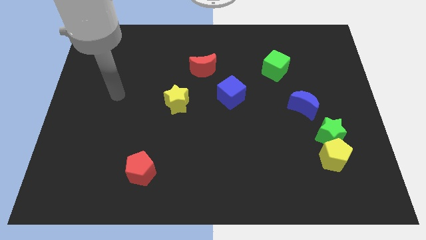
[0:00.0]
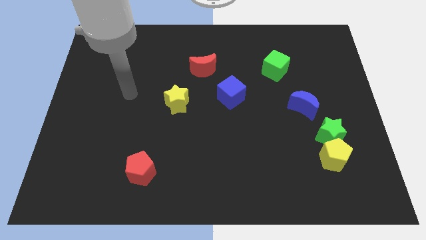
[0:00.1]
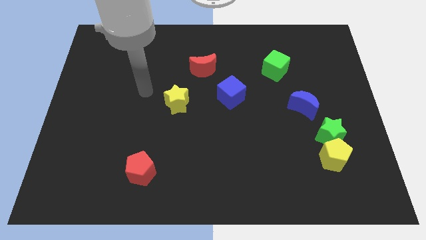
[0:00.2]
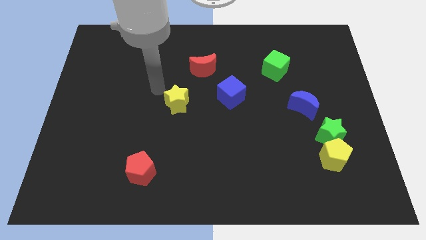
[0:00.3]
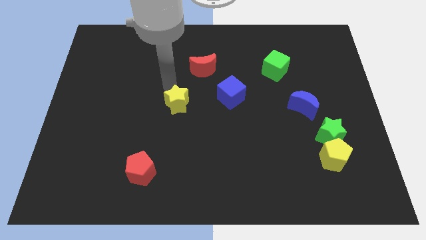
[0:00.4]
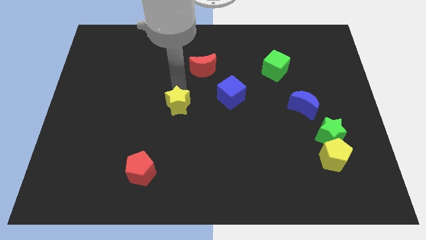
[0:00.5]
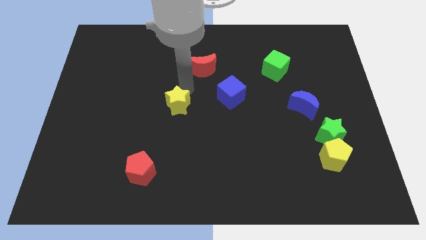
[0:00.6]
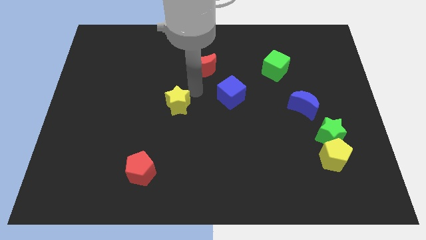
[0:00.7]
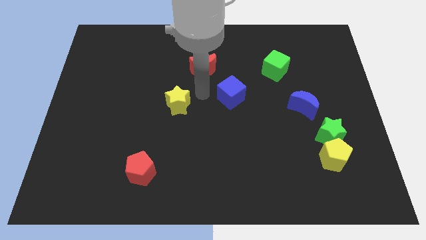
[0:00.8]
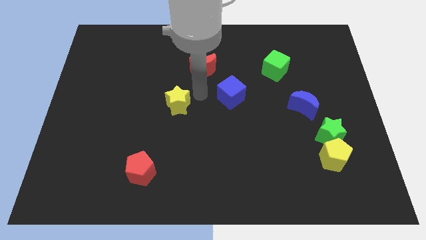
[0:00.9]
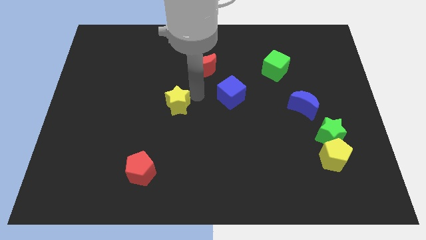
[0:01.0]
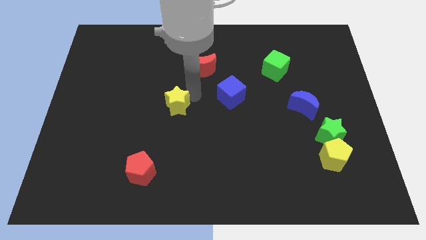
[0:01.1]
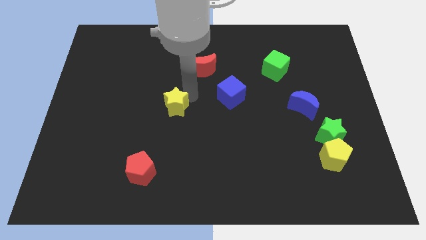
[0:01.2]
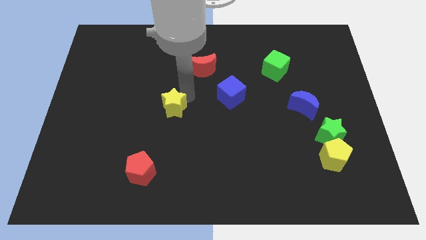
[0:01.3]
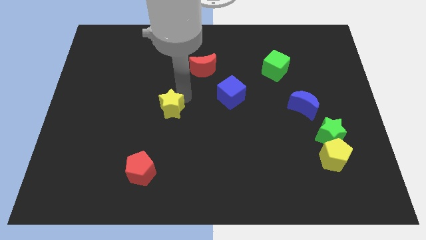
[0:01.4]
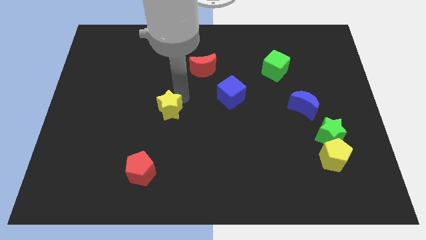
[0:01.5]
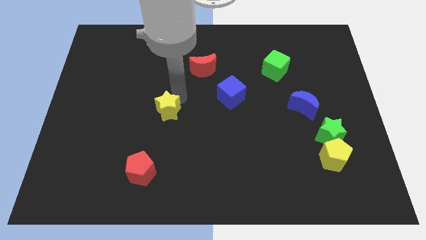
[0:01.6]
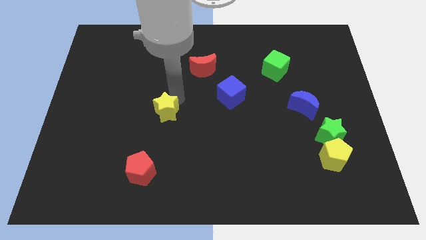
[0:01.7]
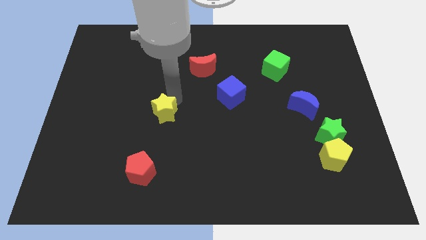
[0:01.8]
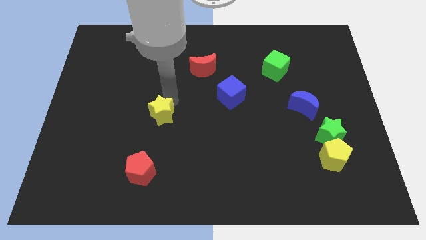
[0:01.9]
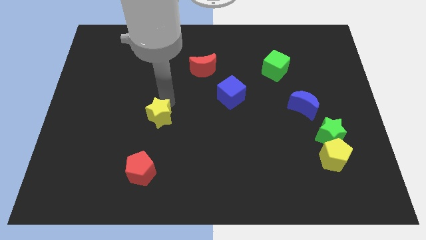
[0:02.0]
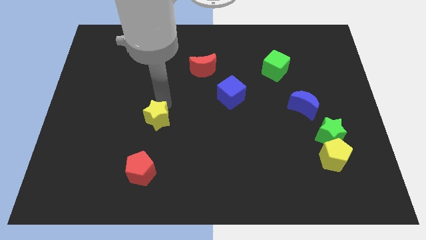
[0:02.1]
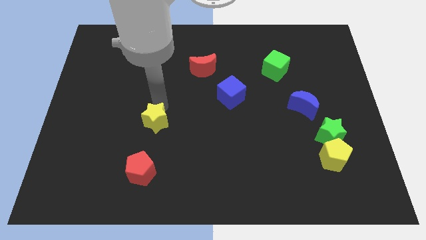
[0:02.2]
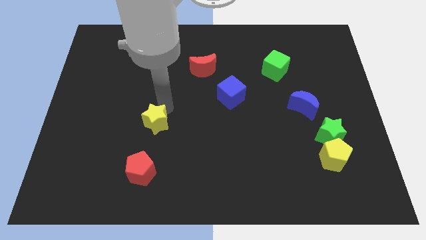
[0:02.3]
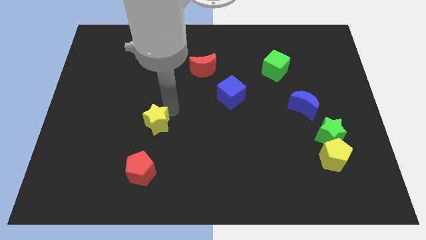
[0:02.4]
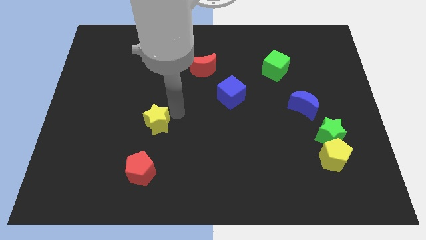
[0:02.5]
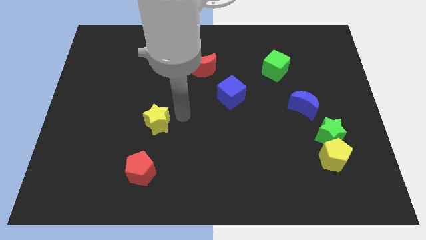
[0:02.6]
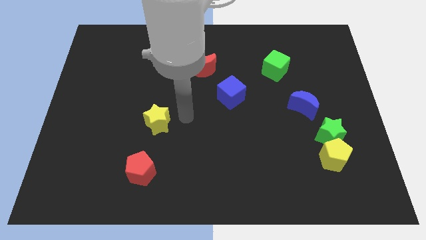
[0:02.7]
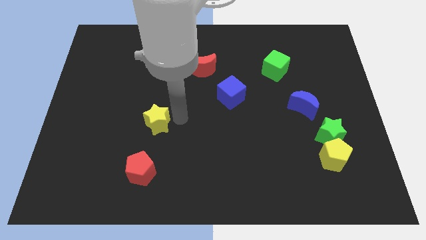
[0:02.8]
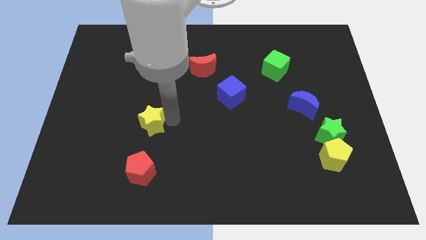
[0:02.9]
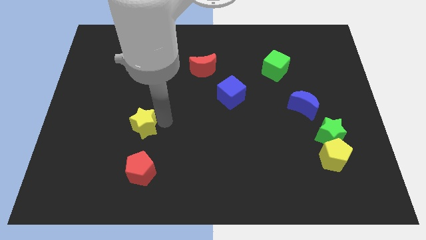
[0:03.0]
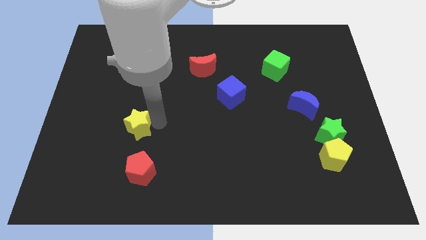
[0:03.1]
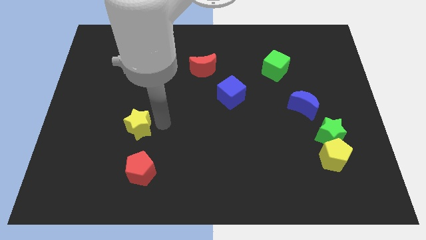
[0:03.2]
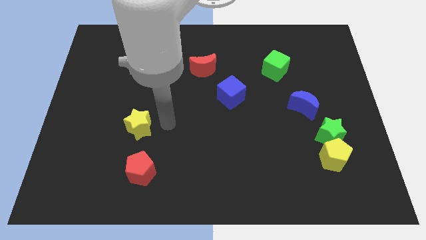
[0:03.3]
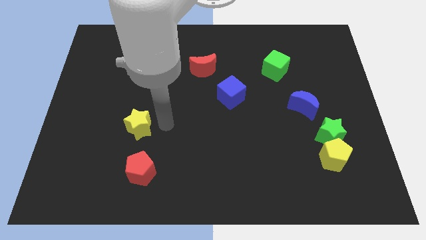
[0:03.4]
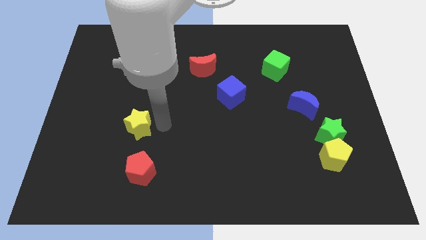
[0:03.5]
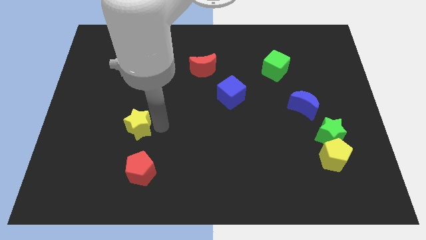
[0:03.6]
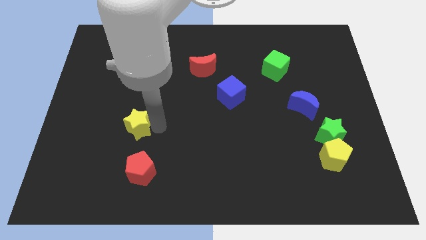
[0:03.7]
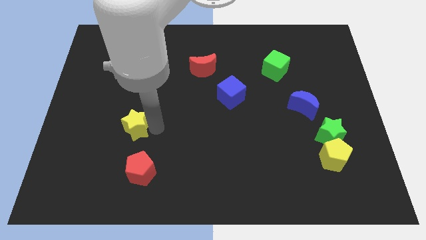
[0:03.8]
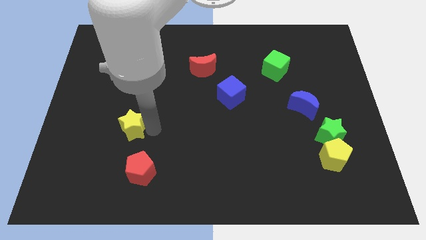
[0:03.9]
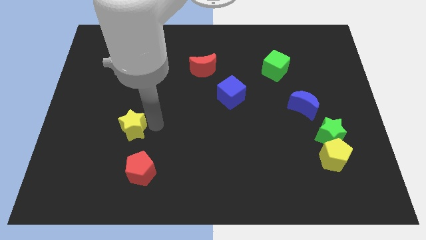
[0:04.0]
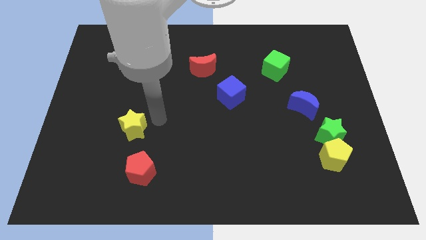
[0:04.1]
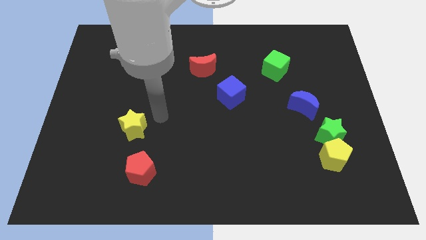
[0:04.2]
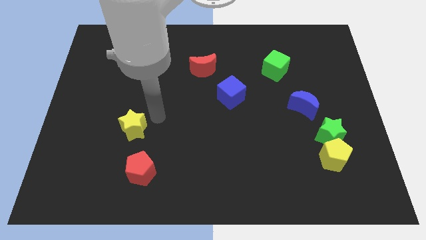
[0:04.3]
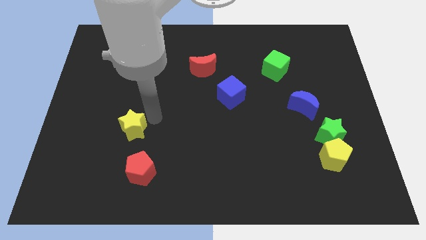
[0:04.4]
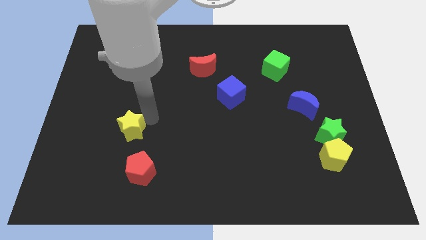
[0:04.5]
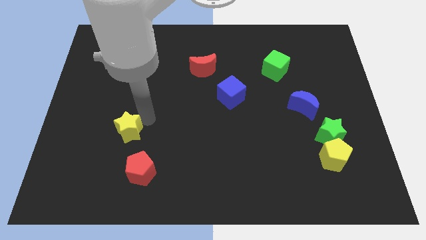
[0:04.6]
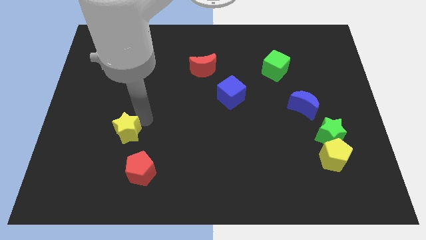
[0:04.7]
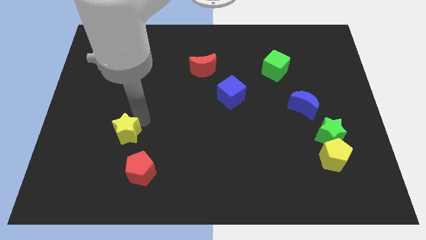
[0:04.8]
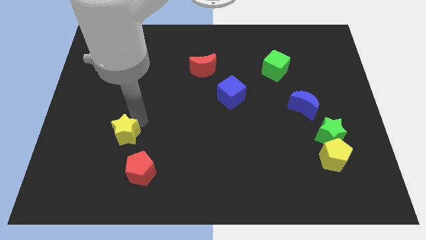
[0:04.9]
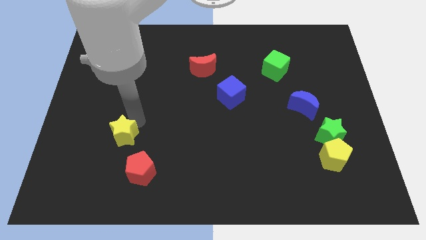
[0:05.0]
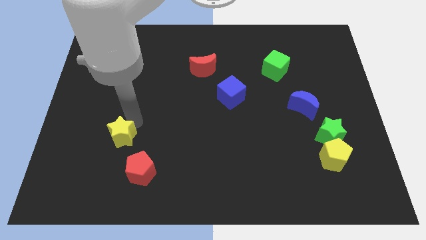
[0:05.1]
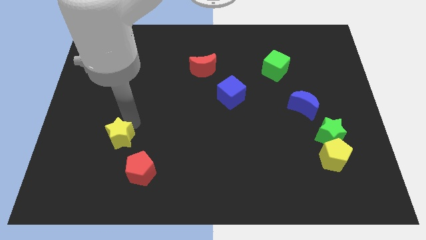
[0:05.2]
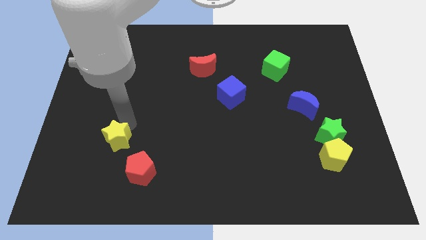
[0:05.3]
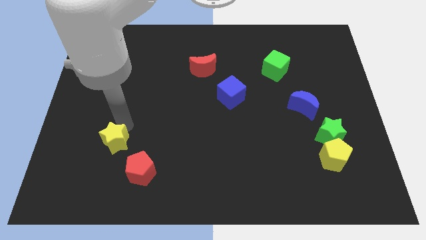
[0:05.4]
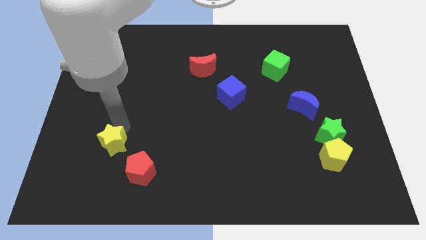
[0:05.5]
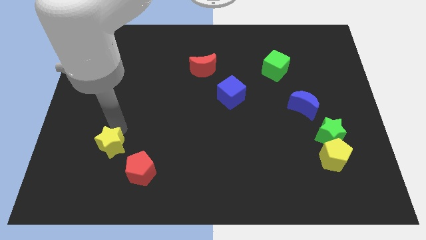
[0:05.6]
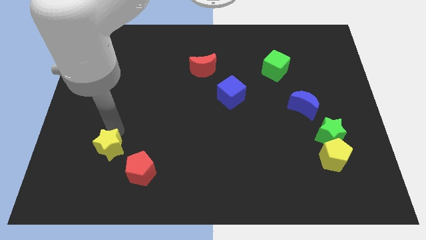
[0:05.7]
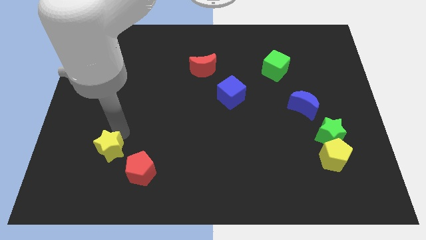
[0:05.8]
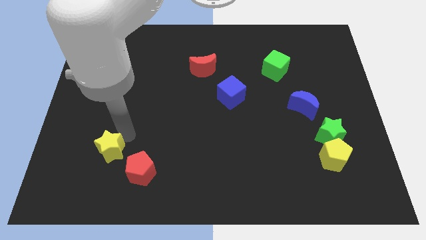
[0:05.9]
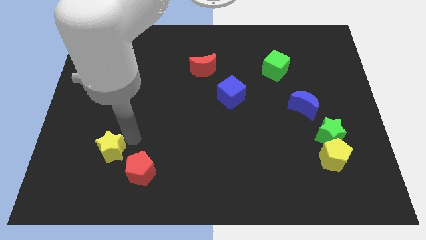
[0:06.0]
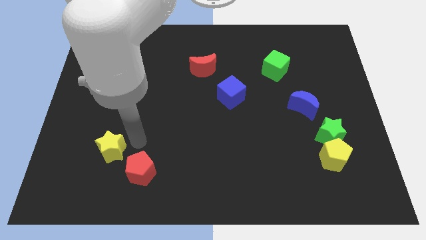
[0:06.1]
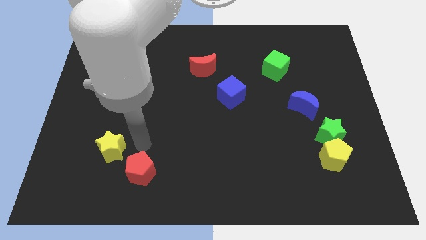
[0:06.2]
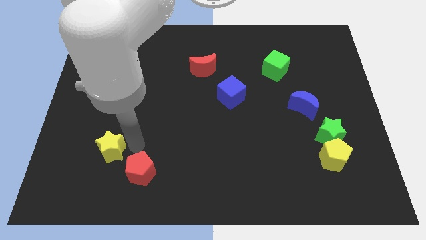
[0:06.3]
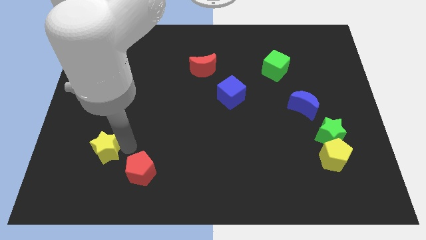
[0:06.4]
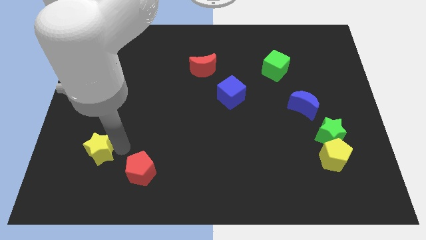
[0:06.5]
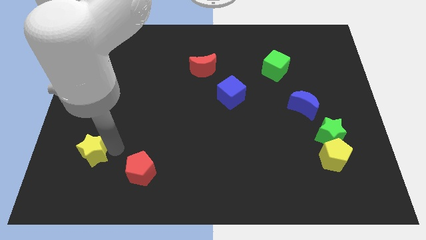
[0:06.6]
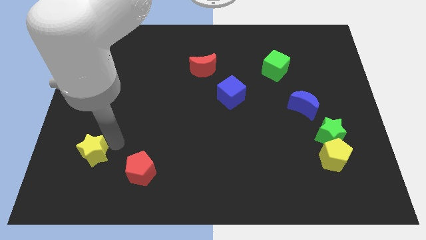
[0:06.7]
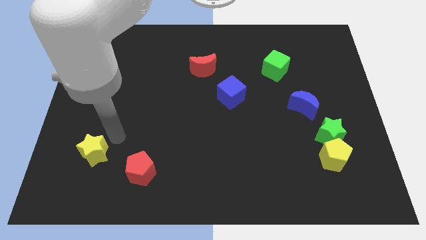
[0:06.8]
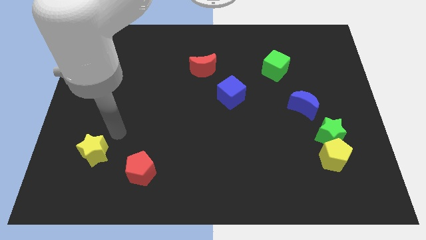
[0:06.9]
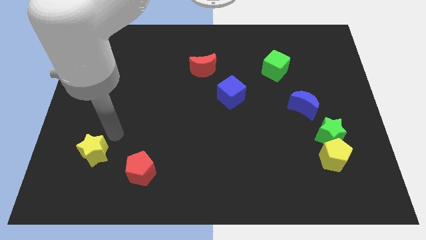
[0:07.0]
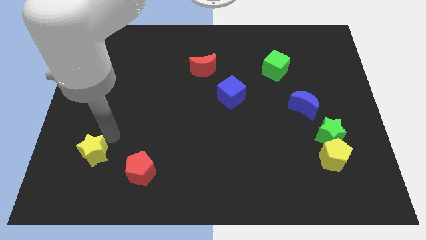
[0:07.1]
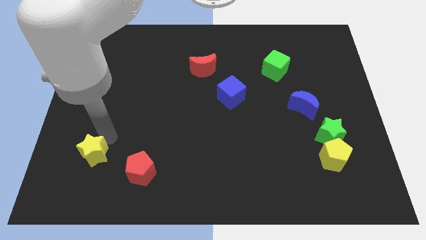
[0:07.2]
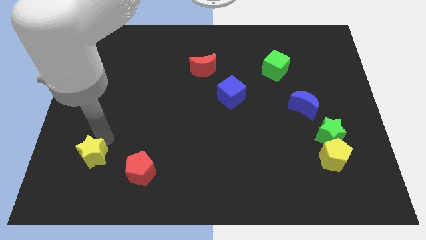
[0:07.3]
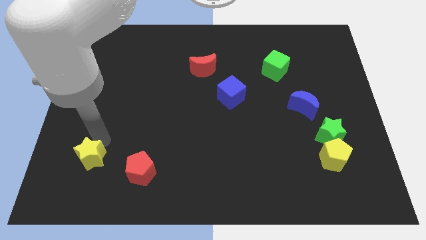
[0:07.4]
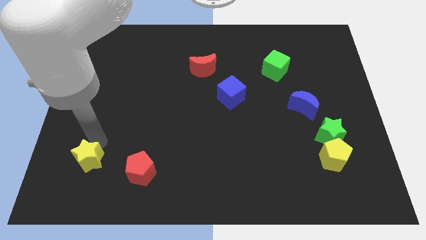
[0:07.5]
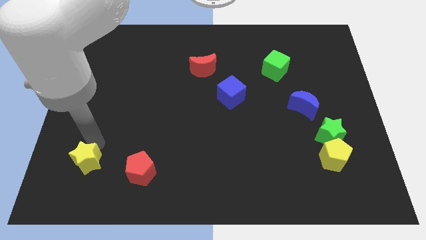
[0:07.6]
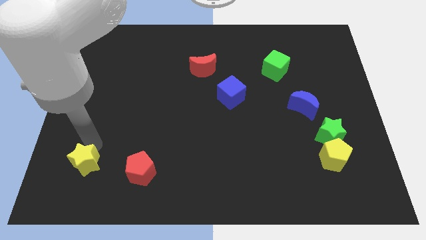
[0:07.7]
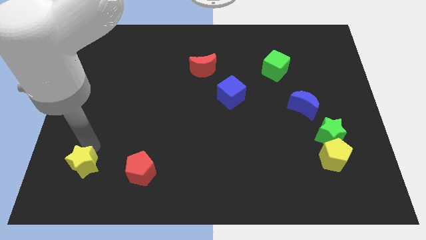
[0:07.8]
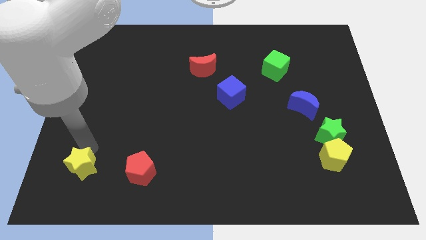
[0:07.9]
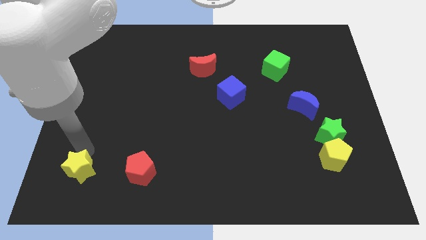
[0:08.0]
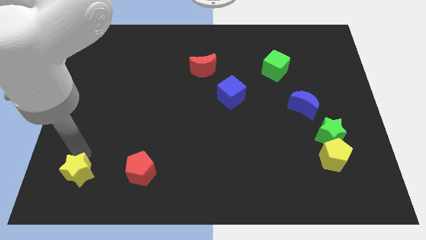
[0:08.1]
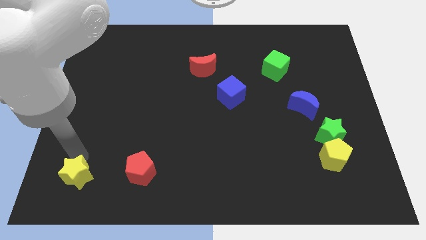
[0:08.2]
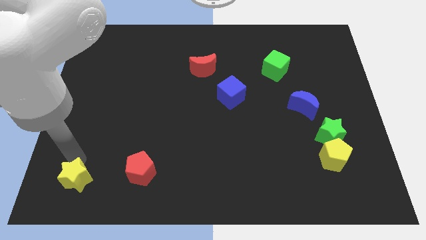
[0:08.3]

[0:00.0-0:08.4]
move the yellow star to the bottom left
